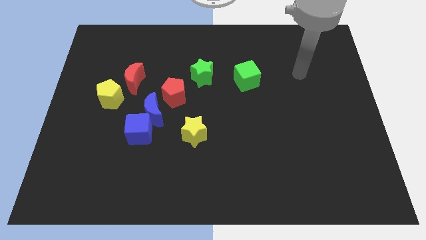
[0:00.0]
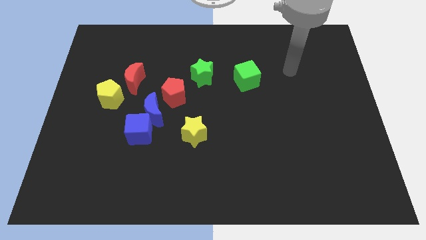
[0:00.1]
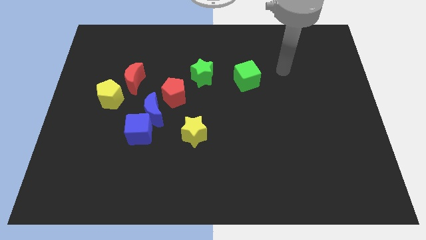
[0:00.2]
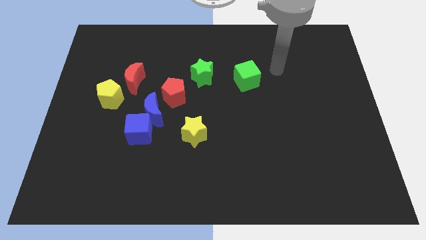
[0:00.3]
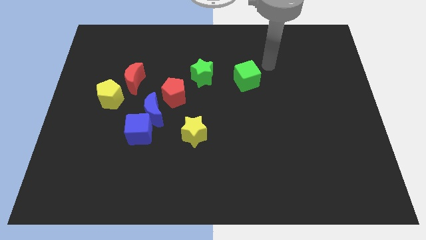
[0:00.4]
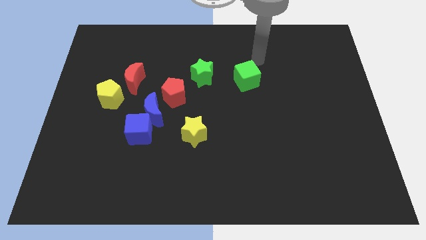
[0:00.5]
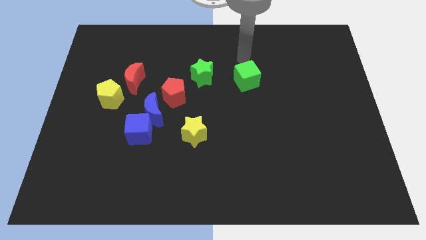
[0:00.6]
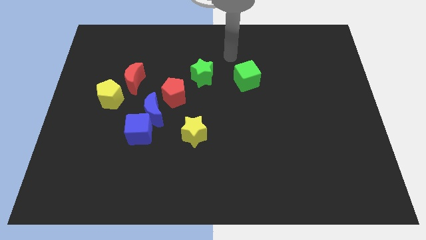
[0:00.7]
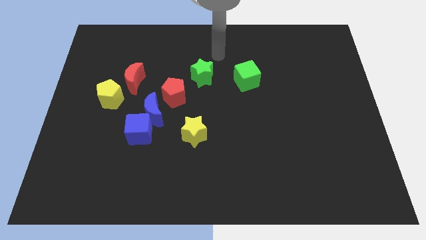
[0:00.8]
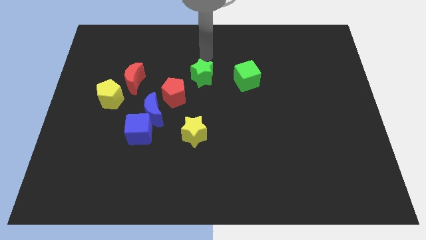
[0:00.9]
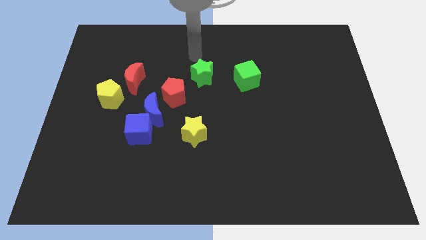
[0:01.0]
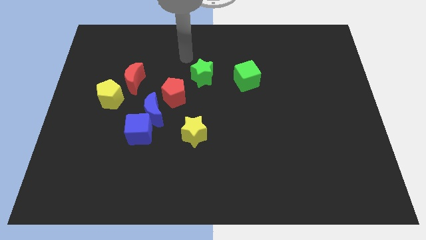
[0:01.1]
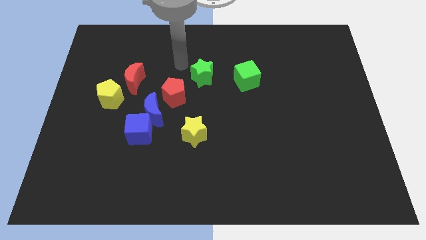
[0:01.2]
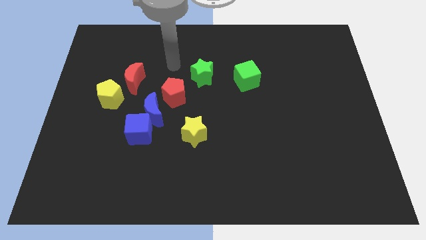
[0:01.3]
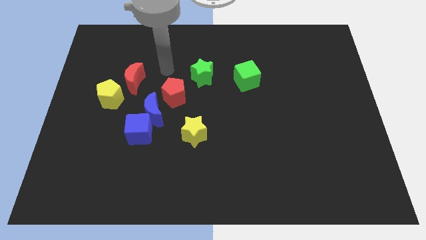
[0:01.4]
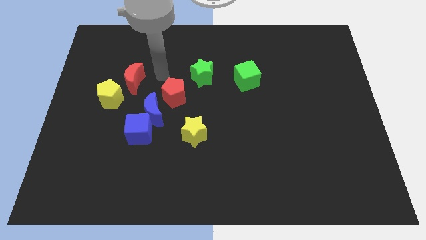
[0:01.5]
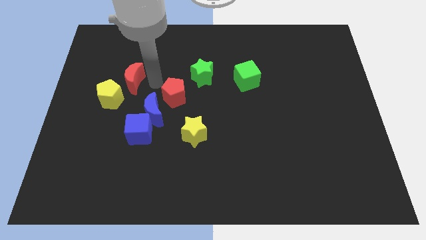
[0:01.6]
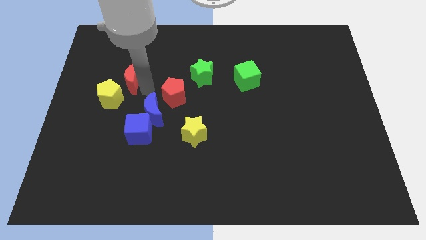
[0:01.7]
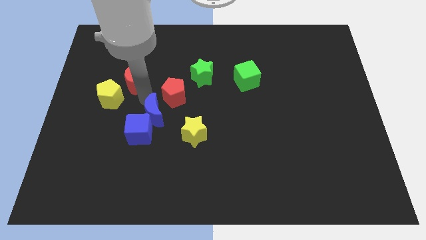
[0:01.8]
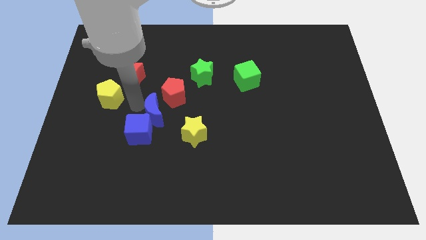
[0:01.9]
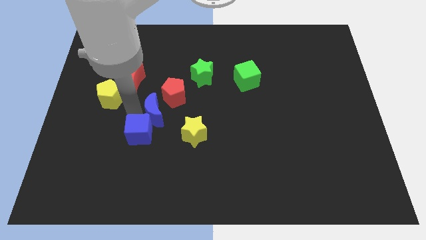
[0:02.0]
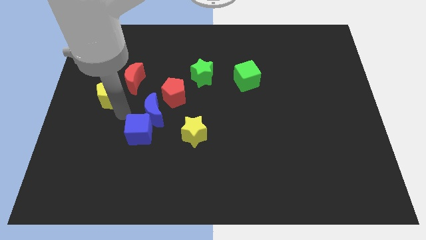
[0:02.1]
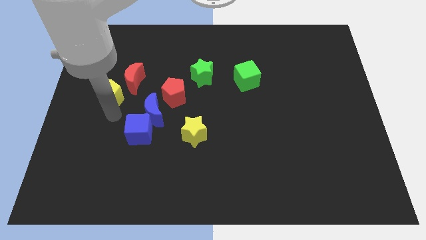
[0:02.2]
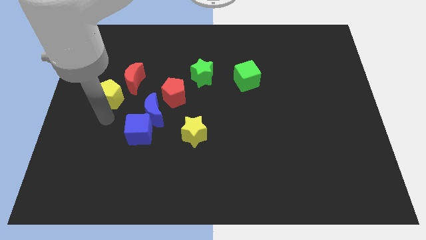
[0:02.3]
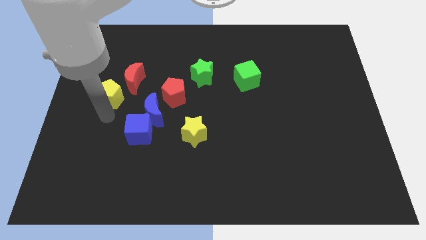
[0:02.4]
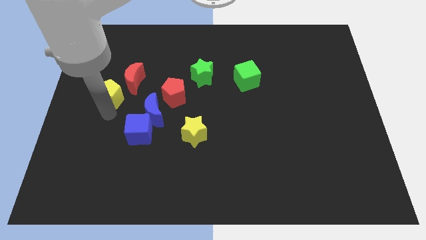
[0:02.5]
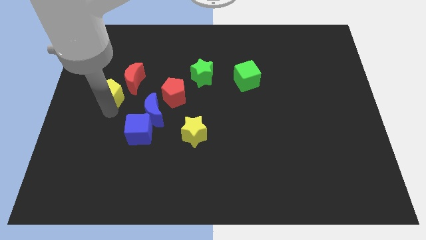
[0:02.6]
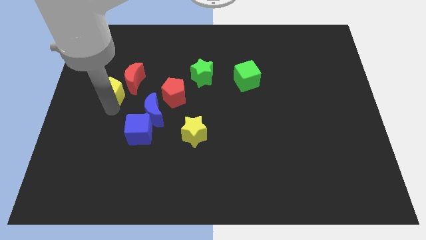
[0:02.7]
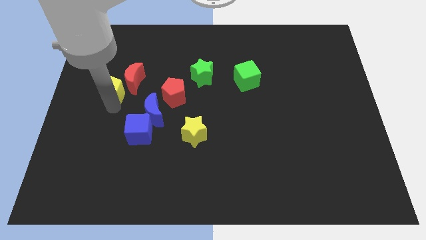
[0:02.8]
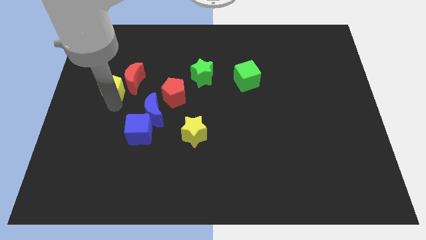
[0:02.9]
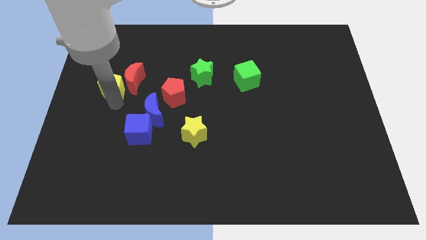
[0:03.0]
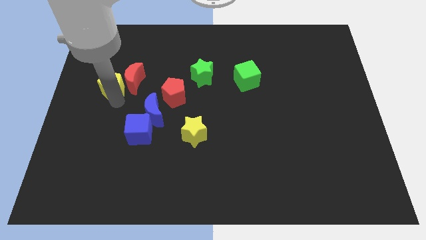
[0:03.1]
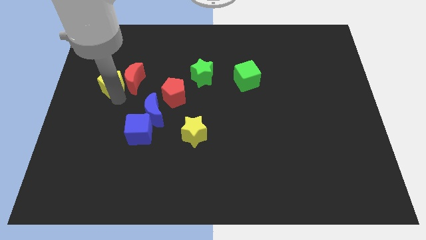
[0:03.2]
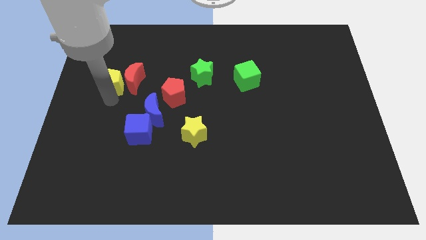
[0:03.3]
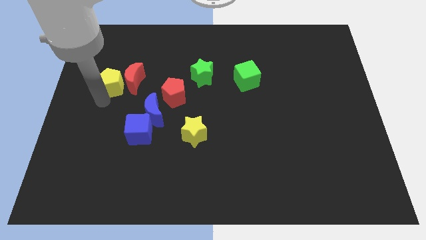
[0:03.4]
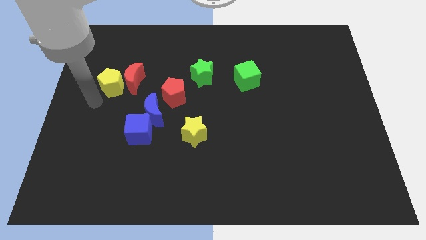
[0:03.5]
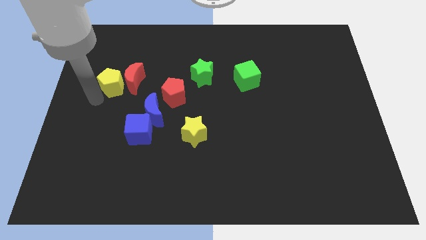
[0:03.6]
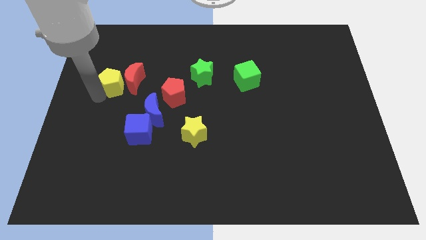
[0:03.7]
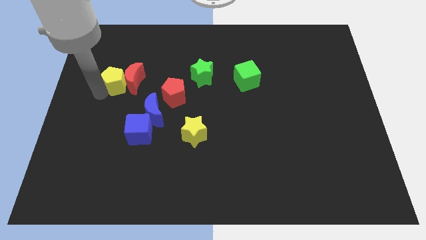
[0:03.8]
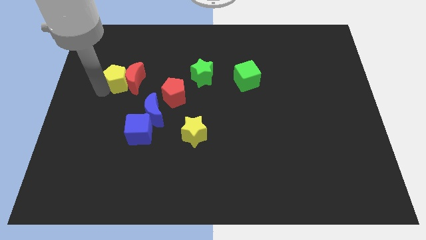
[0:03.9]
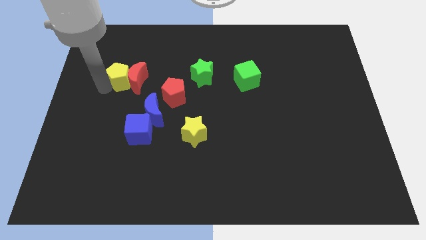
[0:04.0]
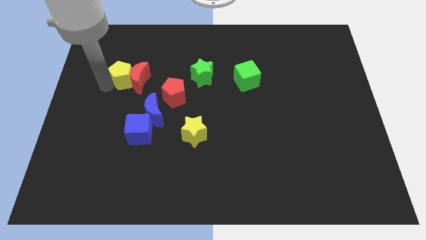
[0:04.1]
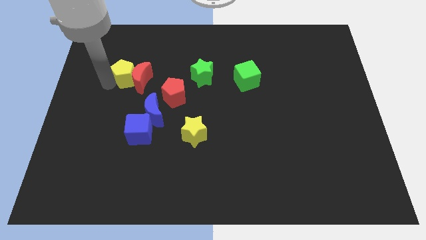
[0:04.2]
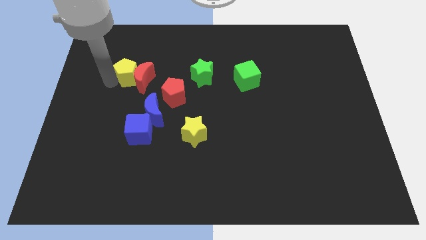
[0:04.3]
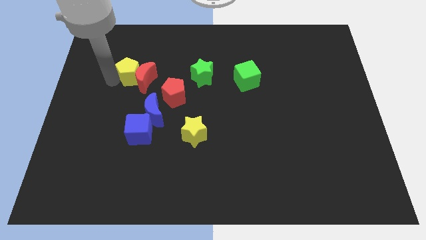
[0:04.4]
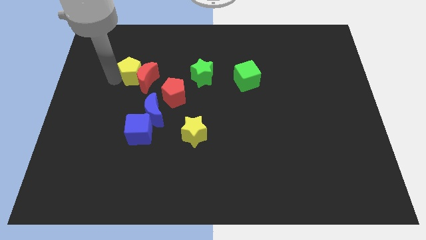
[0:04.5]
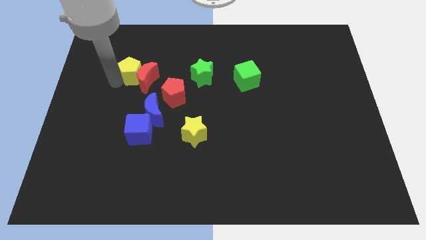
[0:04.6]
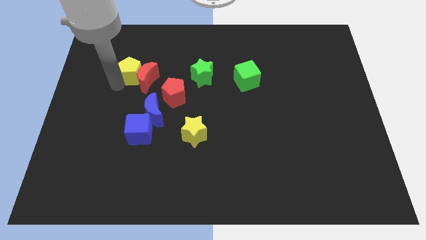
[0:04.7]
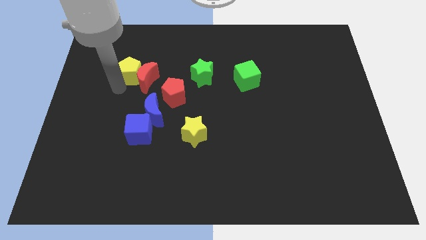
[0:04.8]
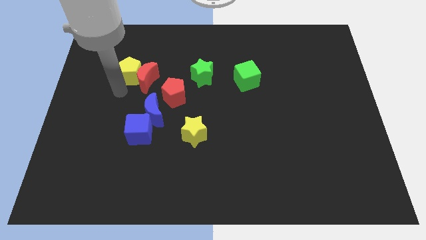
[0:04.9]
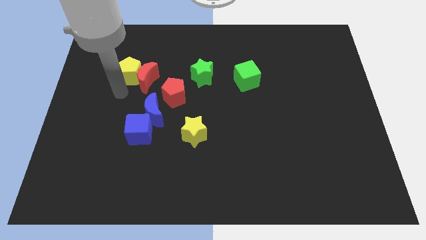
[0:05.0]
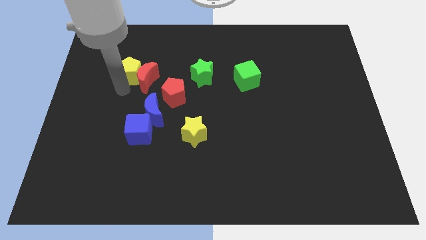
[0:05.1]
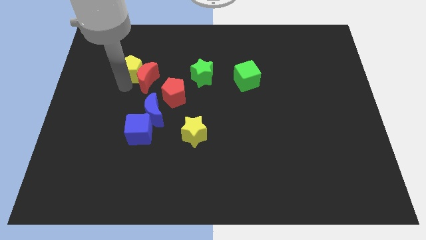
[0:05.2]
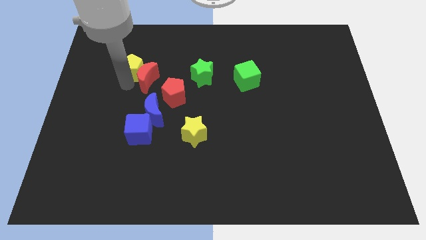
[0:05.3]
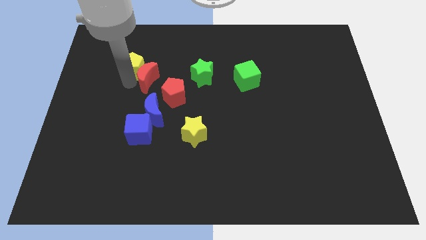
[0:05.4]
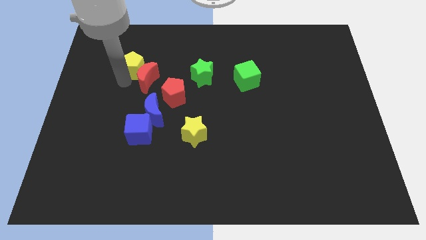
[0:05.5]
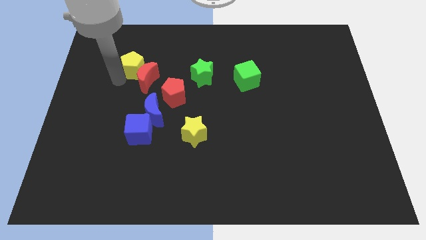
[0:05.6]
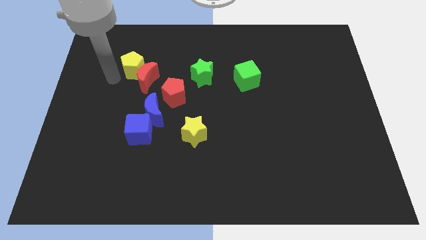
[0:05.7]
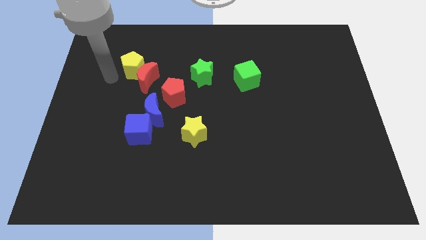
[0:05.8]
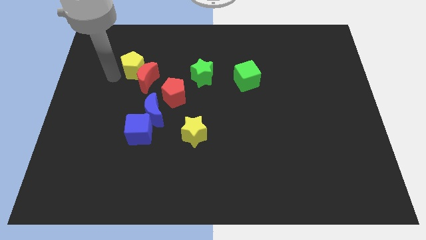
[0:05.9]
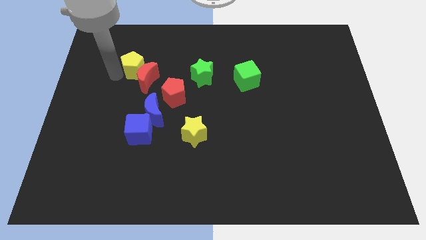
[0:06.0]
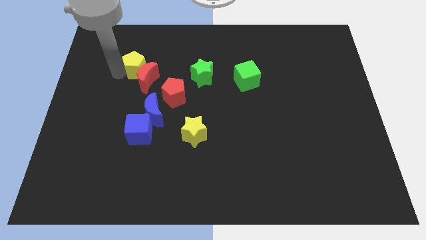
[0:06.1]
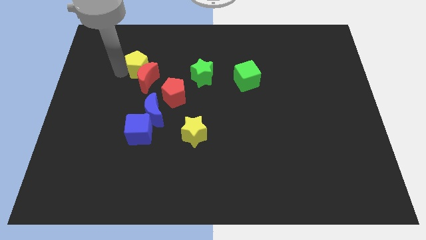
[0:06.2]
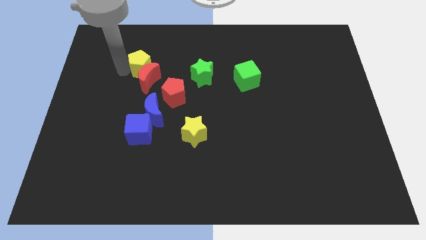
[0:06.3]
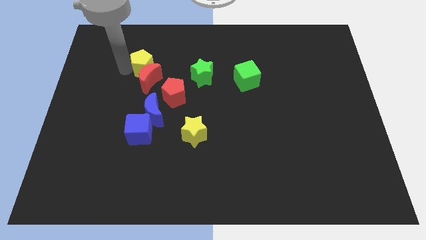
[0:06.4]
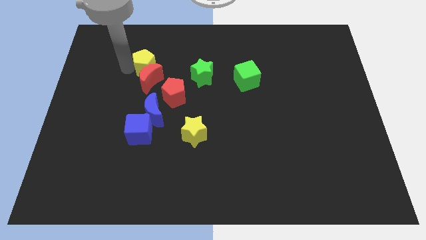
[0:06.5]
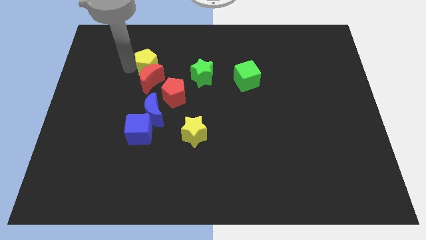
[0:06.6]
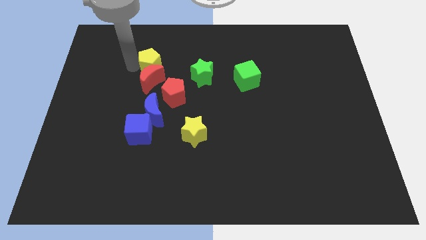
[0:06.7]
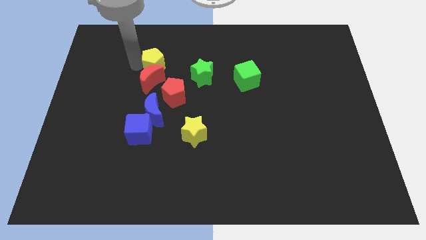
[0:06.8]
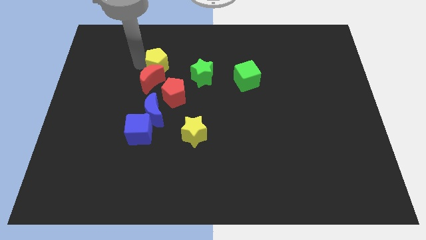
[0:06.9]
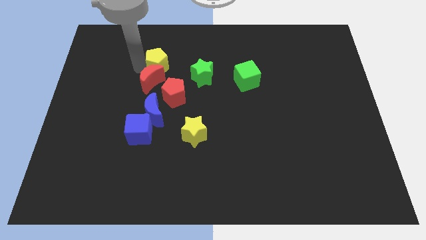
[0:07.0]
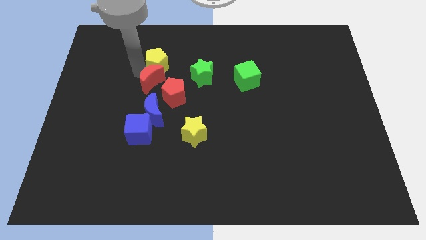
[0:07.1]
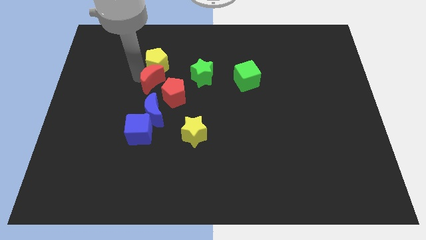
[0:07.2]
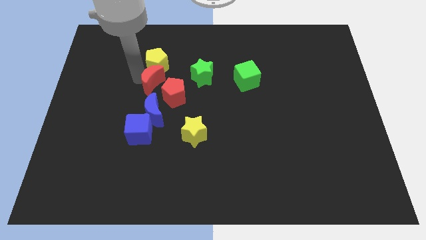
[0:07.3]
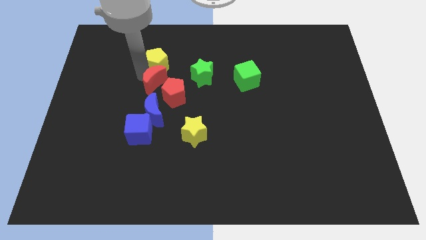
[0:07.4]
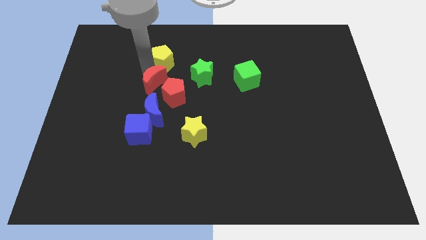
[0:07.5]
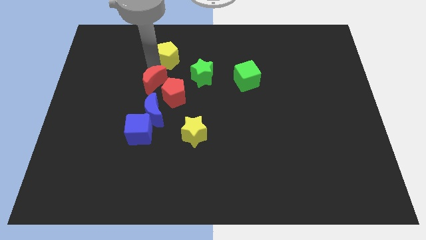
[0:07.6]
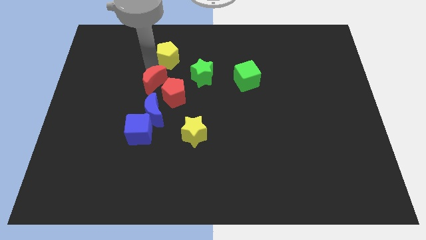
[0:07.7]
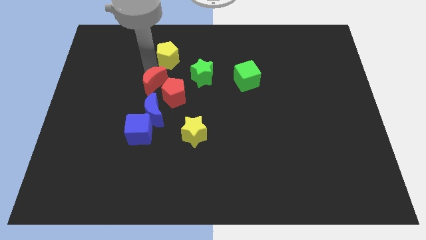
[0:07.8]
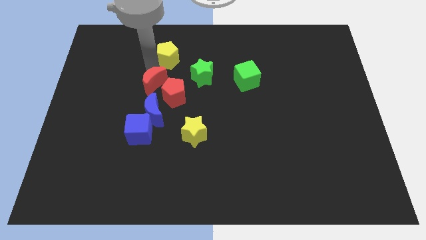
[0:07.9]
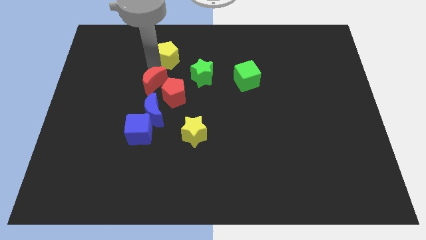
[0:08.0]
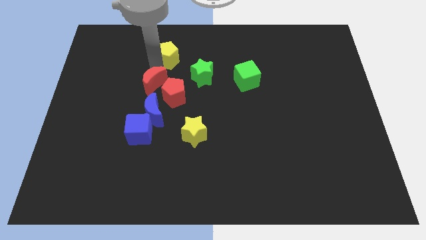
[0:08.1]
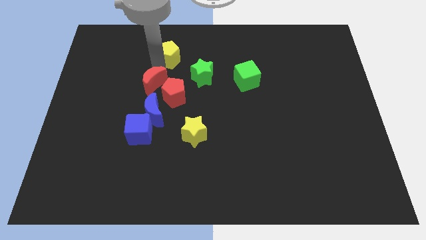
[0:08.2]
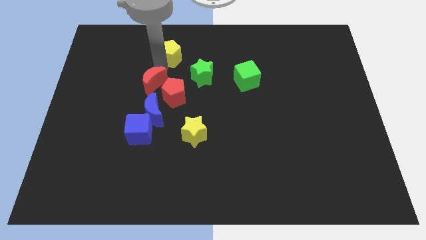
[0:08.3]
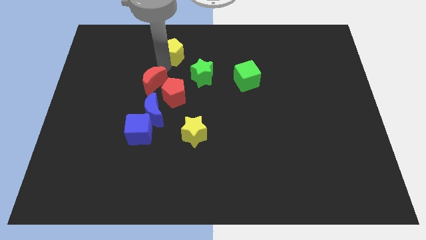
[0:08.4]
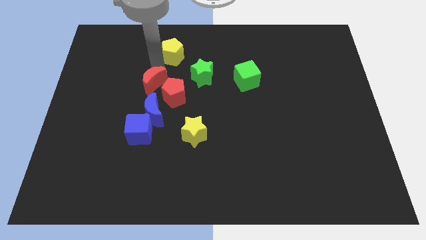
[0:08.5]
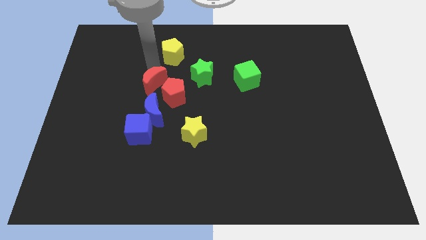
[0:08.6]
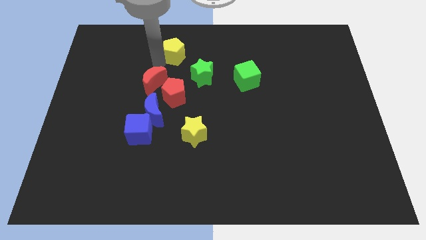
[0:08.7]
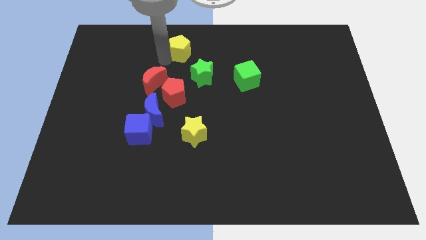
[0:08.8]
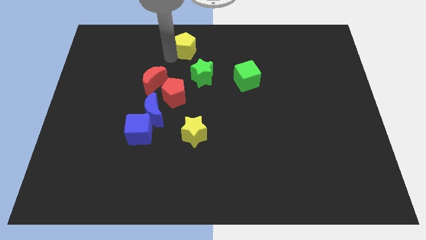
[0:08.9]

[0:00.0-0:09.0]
put the yellow pentagon to the top side
